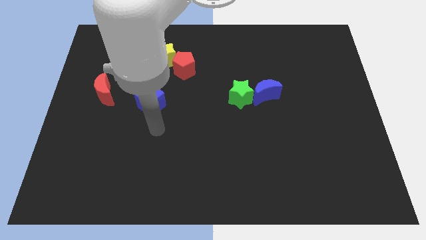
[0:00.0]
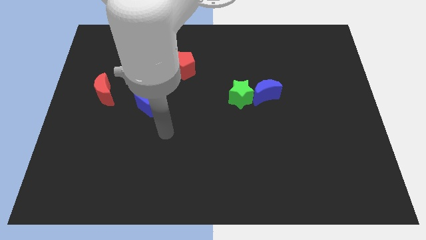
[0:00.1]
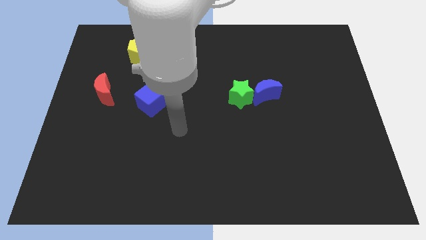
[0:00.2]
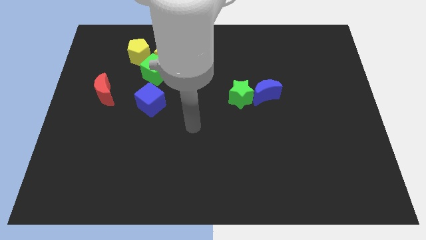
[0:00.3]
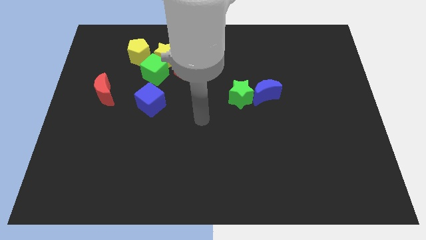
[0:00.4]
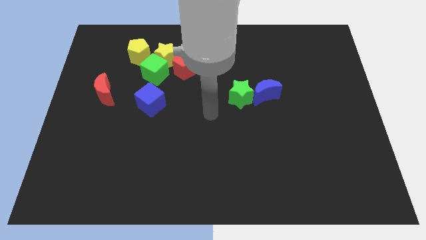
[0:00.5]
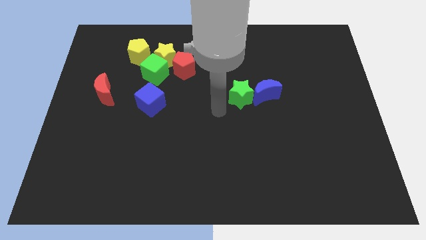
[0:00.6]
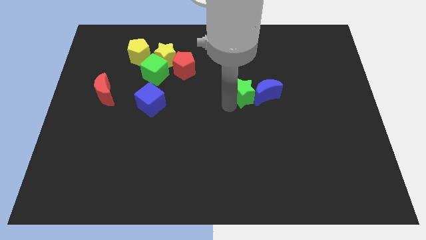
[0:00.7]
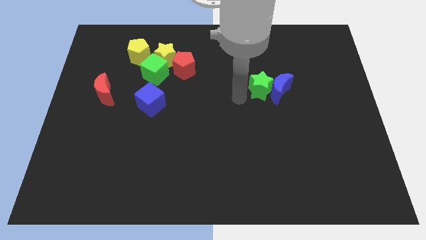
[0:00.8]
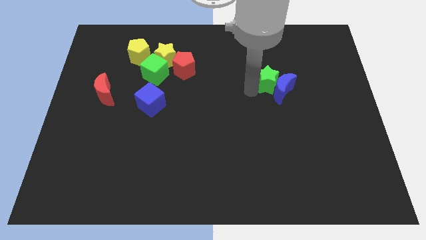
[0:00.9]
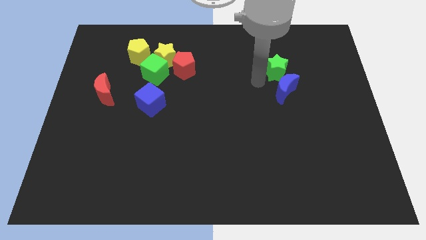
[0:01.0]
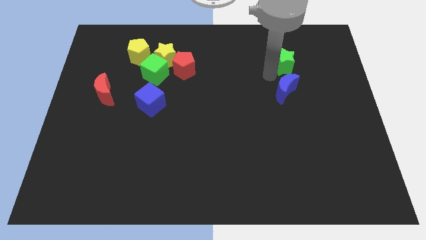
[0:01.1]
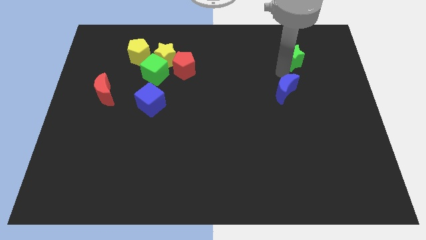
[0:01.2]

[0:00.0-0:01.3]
separate the blue moon from the green star

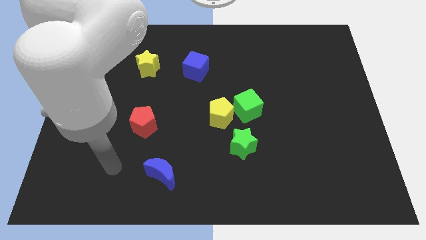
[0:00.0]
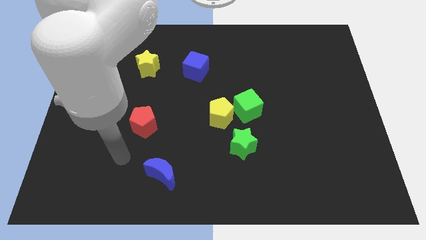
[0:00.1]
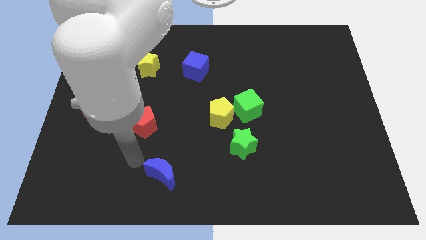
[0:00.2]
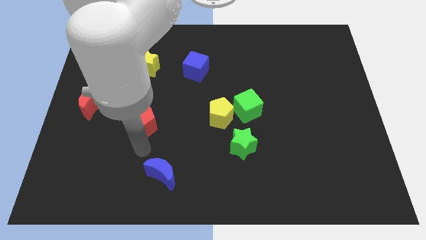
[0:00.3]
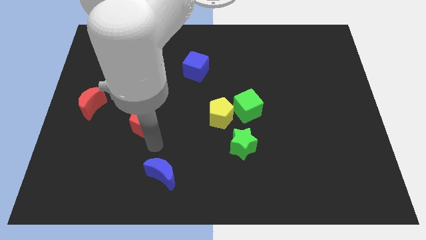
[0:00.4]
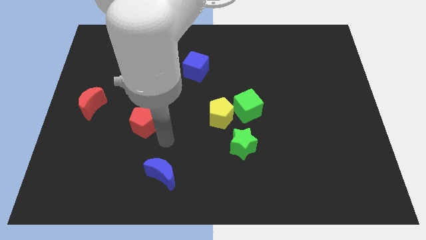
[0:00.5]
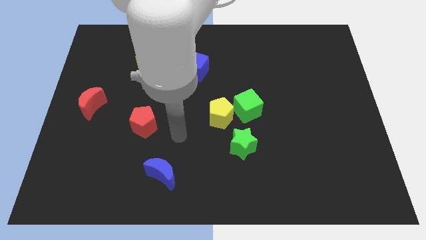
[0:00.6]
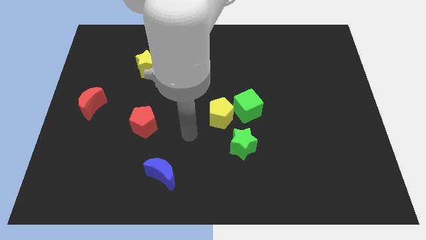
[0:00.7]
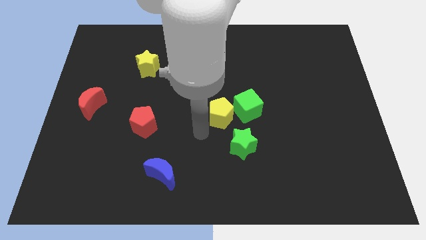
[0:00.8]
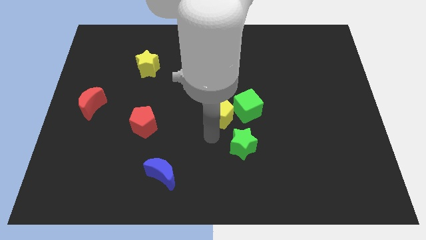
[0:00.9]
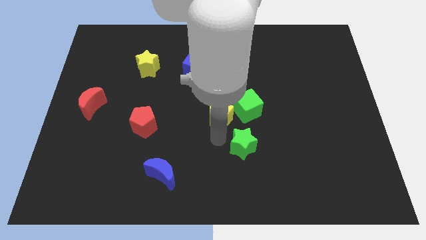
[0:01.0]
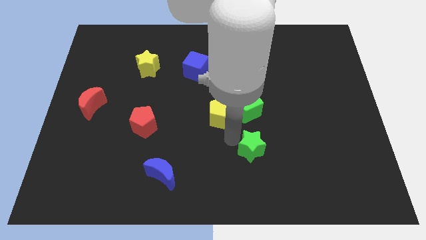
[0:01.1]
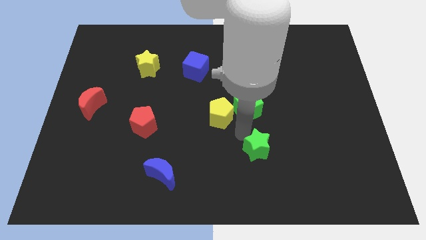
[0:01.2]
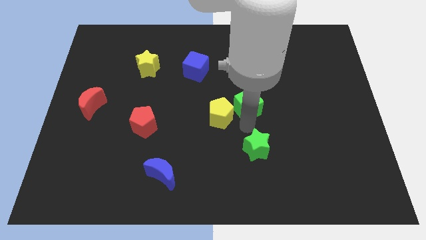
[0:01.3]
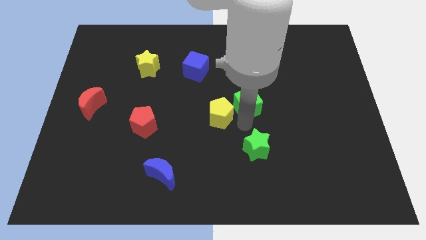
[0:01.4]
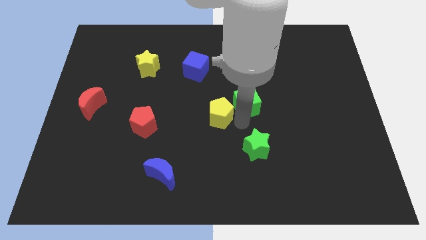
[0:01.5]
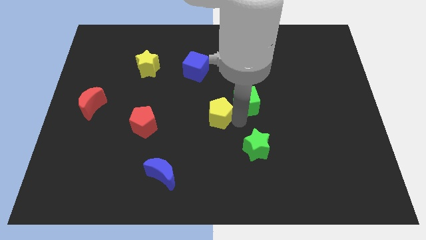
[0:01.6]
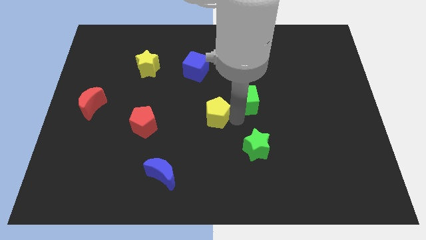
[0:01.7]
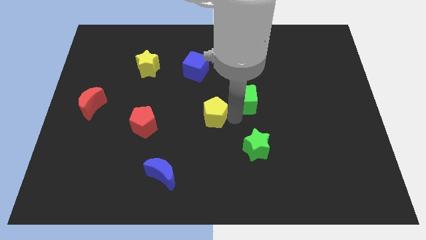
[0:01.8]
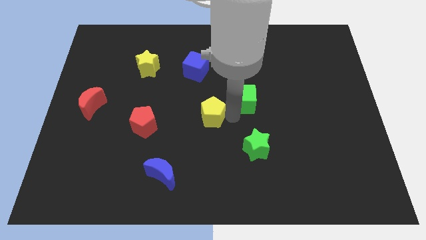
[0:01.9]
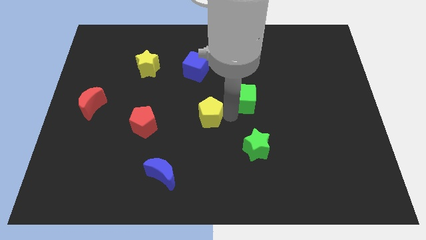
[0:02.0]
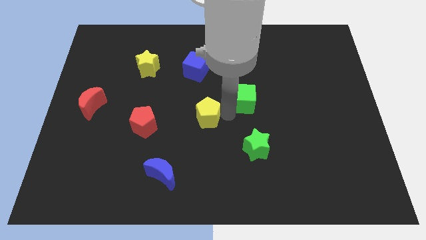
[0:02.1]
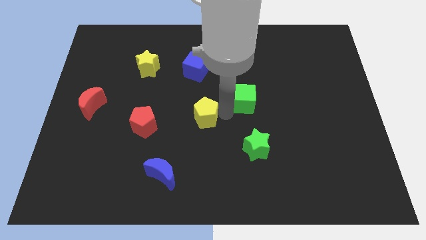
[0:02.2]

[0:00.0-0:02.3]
pull the yellow pentagon apart from the green cube and green star

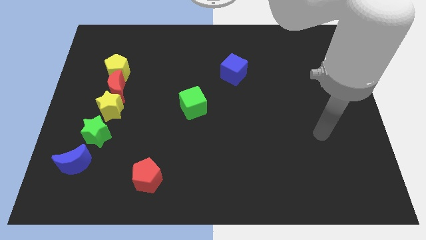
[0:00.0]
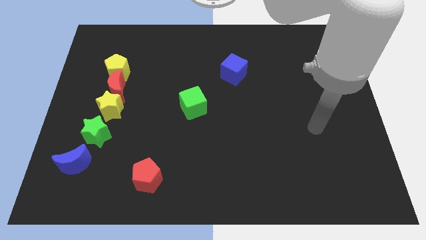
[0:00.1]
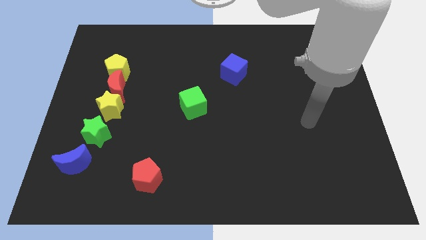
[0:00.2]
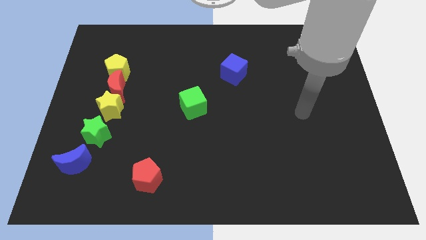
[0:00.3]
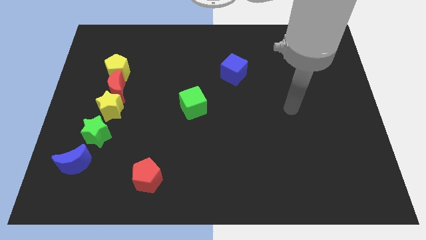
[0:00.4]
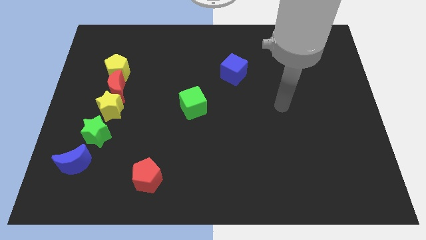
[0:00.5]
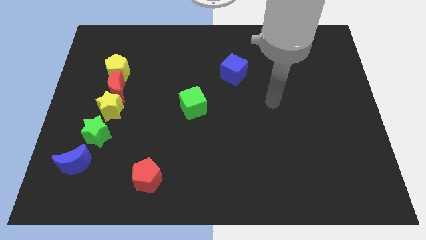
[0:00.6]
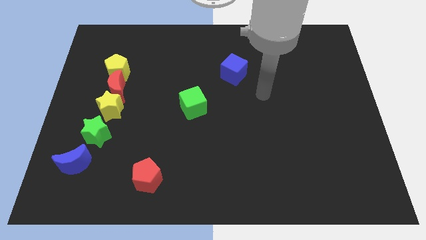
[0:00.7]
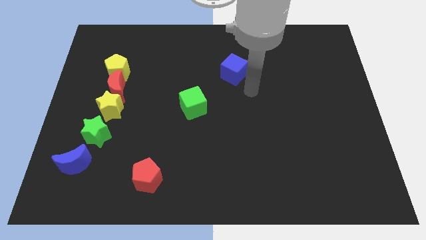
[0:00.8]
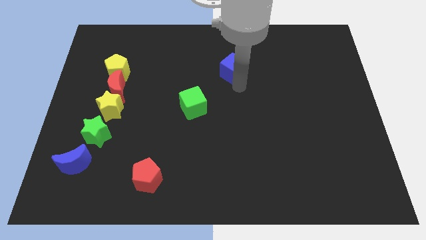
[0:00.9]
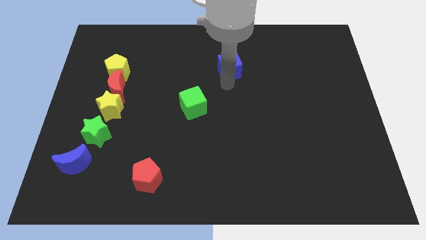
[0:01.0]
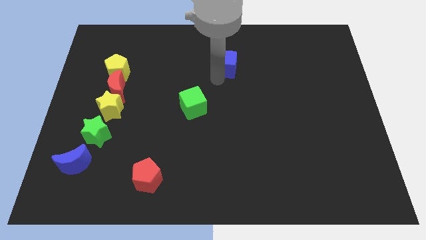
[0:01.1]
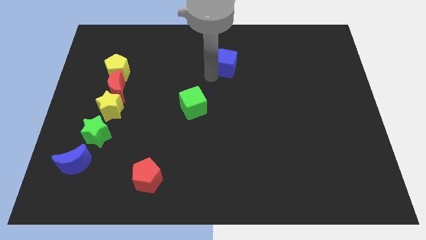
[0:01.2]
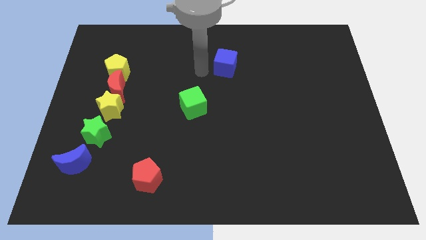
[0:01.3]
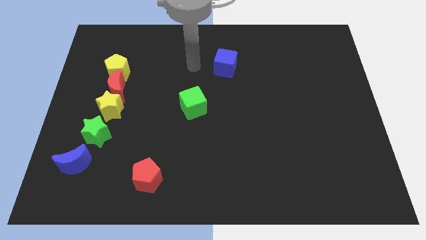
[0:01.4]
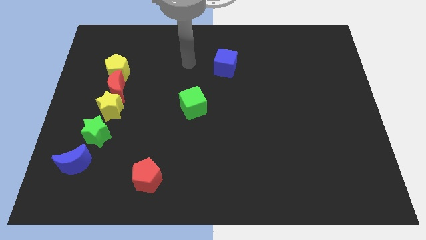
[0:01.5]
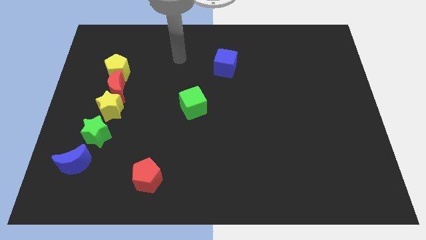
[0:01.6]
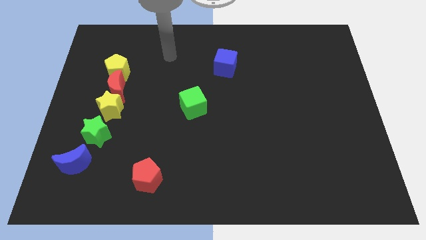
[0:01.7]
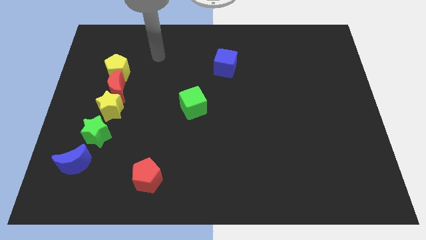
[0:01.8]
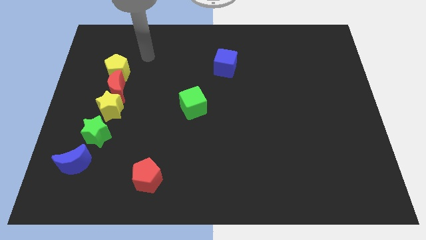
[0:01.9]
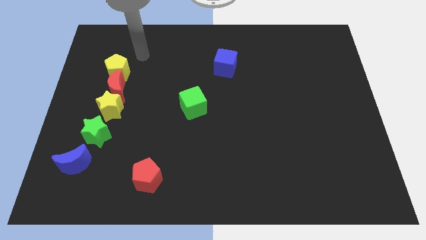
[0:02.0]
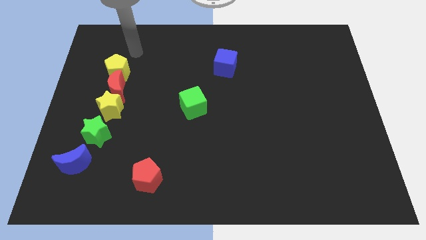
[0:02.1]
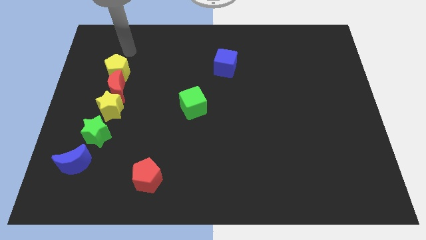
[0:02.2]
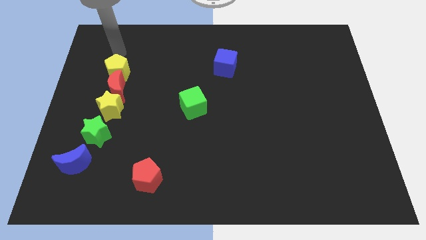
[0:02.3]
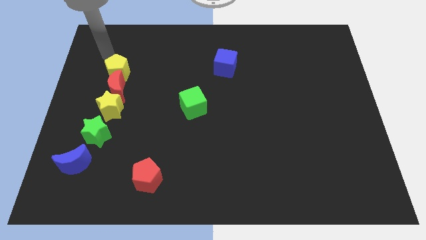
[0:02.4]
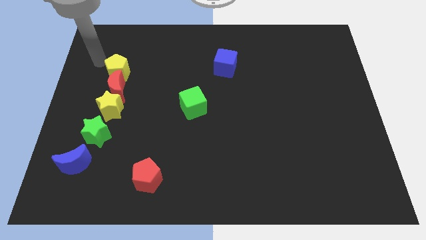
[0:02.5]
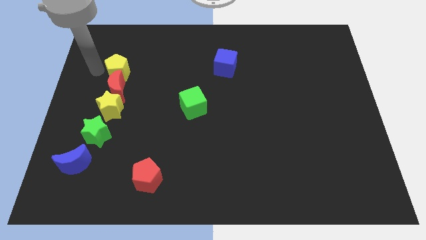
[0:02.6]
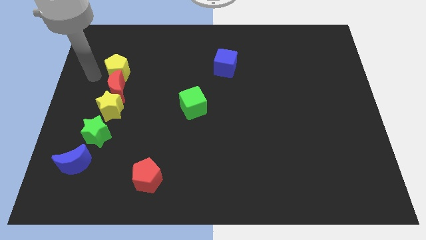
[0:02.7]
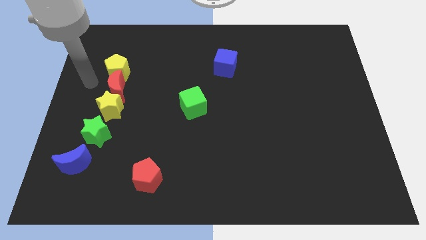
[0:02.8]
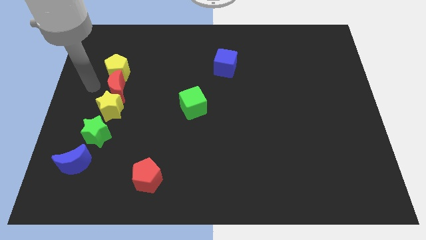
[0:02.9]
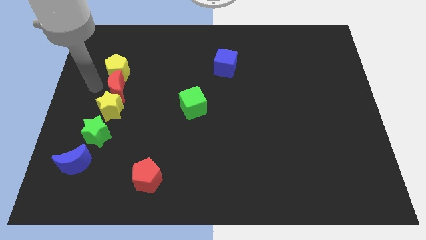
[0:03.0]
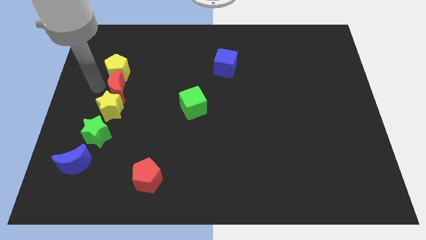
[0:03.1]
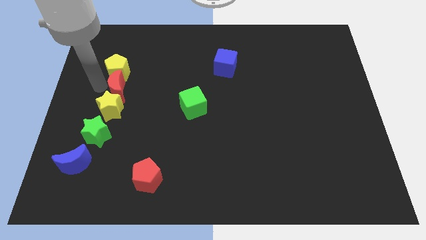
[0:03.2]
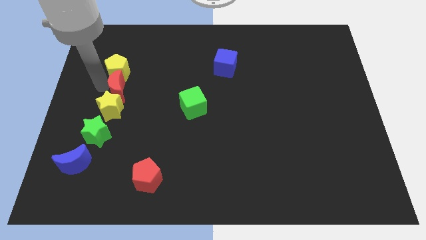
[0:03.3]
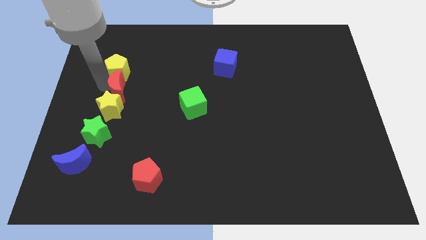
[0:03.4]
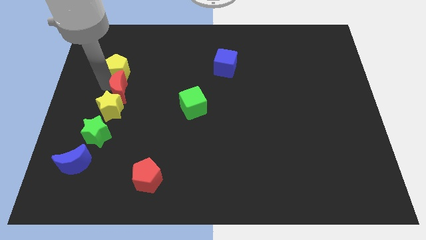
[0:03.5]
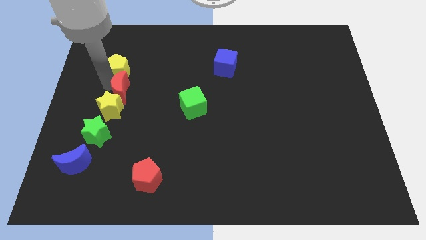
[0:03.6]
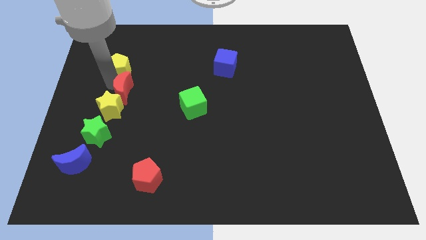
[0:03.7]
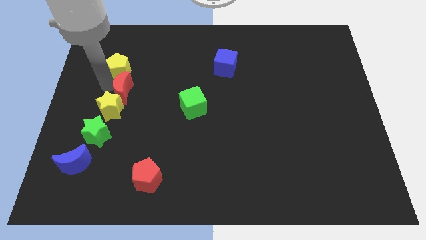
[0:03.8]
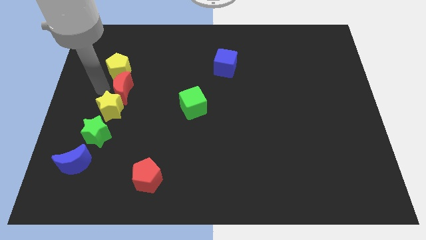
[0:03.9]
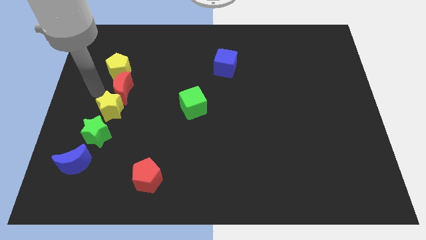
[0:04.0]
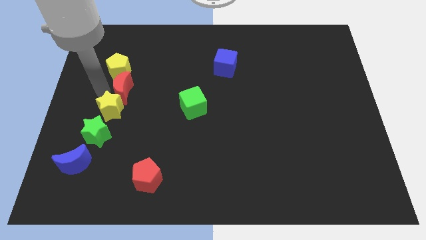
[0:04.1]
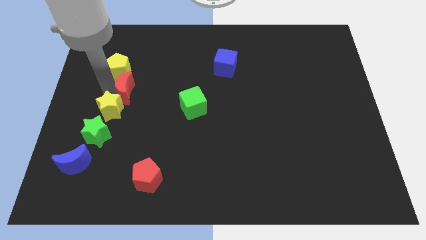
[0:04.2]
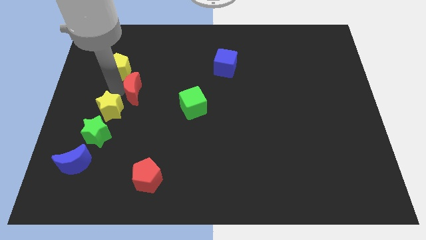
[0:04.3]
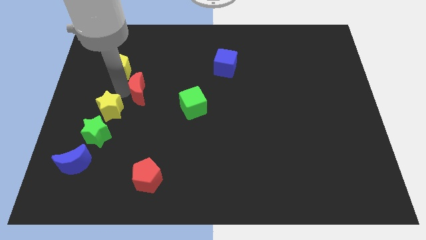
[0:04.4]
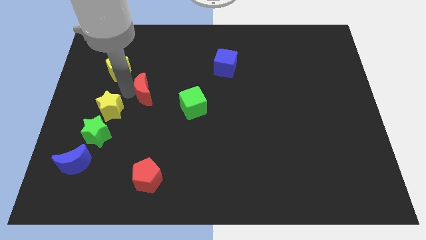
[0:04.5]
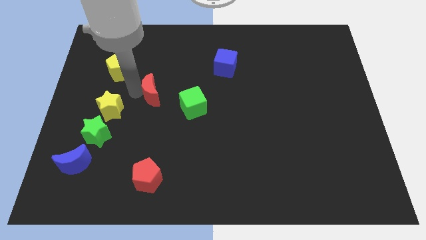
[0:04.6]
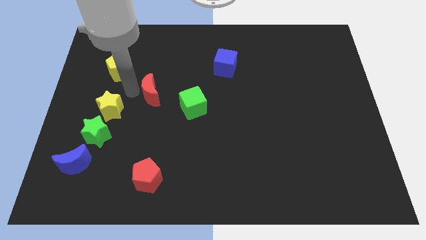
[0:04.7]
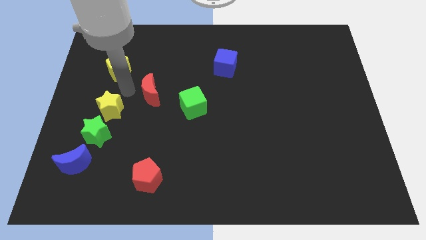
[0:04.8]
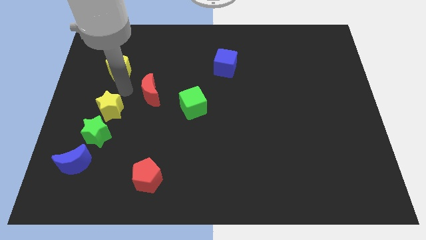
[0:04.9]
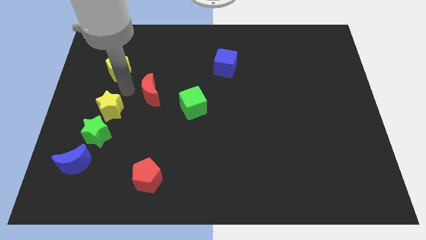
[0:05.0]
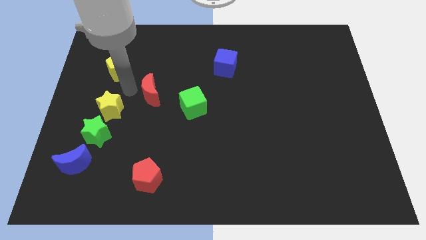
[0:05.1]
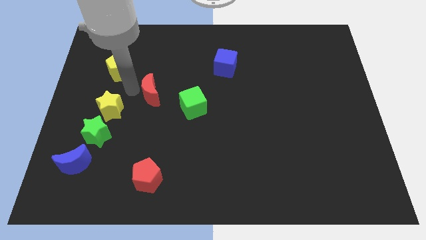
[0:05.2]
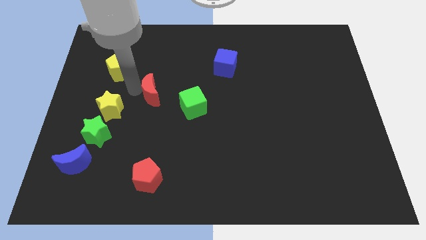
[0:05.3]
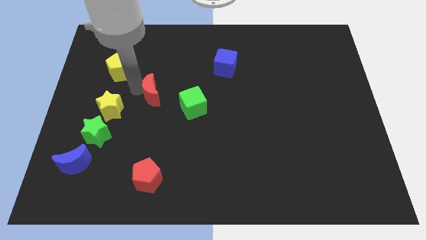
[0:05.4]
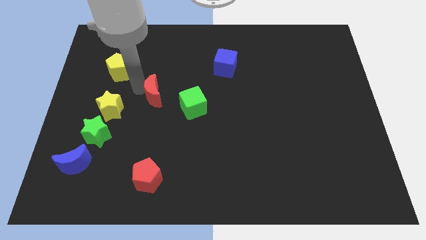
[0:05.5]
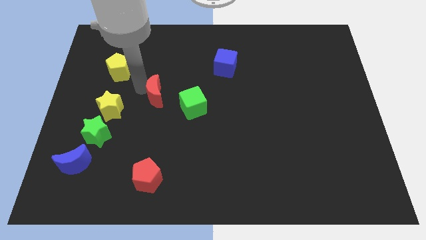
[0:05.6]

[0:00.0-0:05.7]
move the red moon away from the yellow star and yellow pentagon
